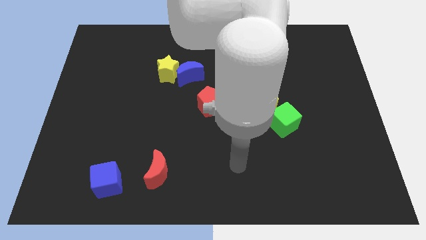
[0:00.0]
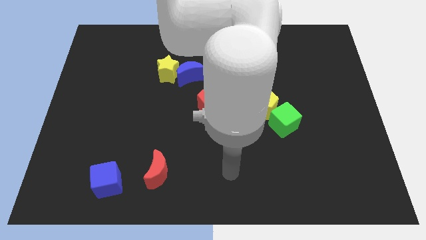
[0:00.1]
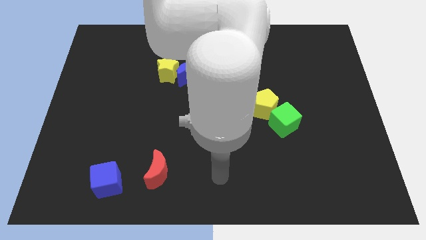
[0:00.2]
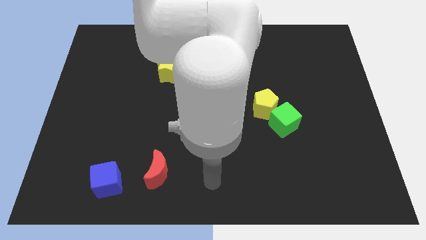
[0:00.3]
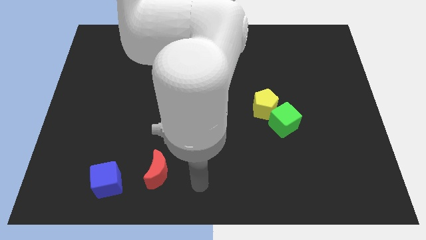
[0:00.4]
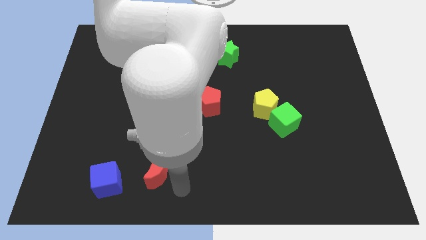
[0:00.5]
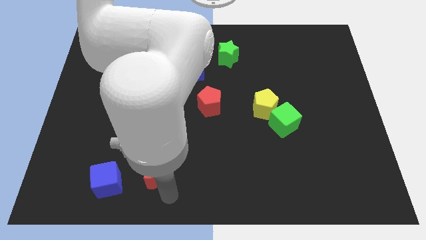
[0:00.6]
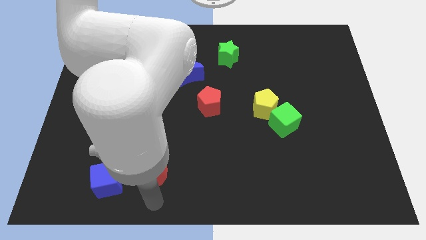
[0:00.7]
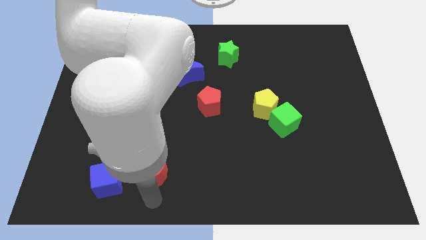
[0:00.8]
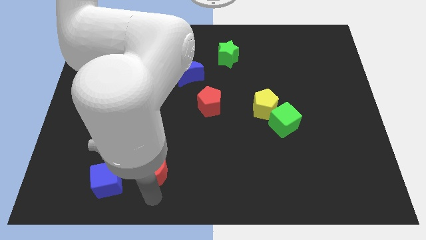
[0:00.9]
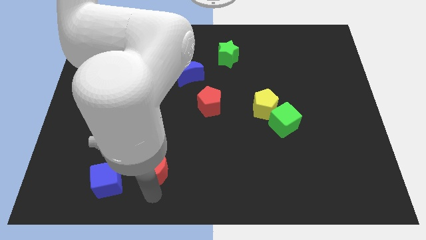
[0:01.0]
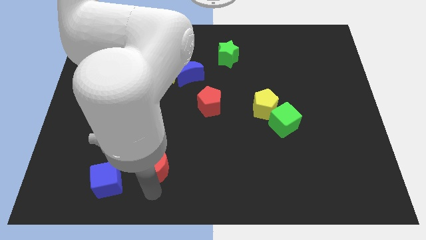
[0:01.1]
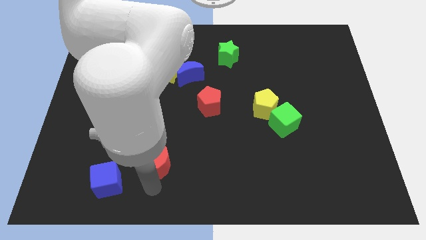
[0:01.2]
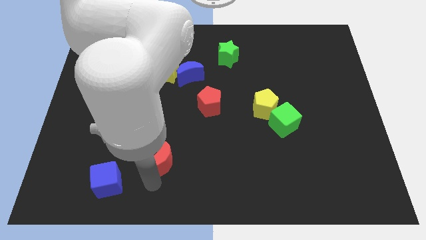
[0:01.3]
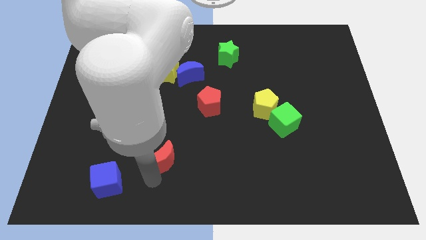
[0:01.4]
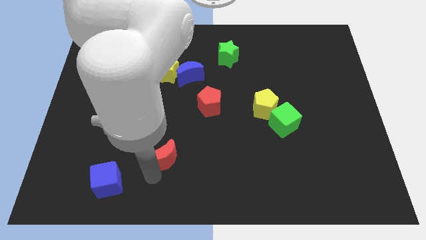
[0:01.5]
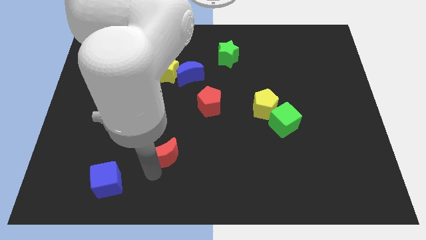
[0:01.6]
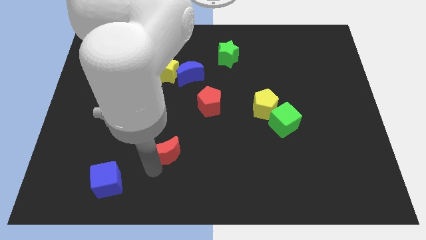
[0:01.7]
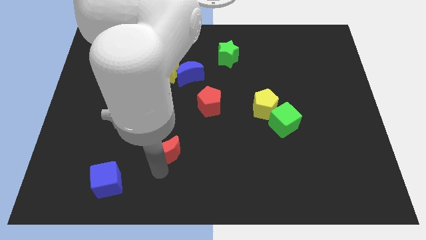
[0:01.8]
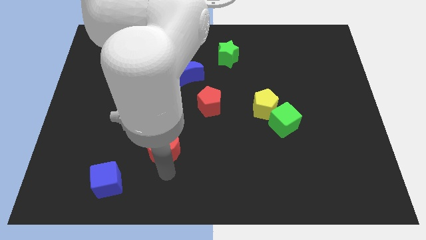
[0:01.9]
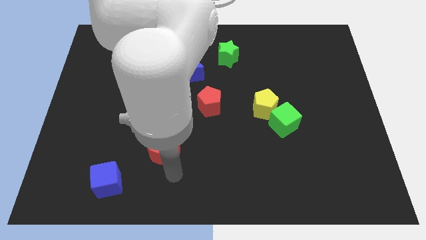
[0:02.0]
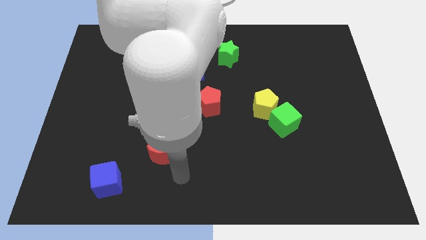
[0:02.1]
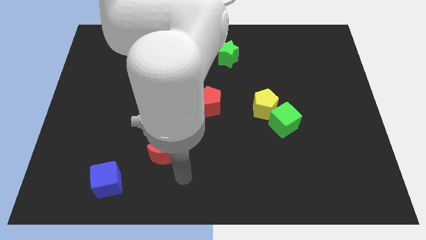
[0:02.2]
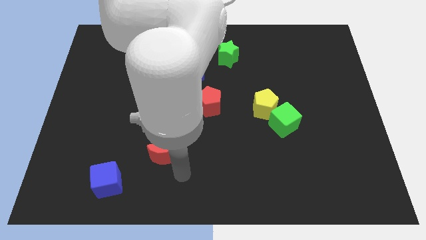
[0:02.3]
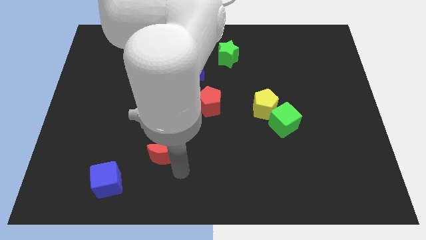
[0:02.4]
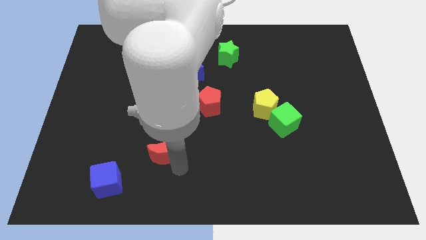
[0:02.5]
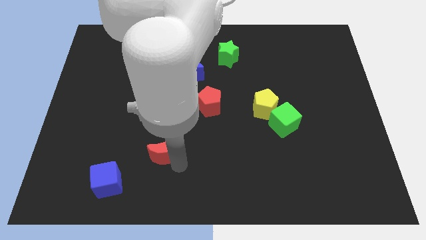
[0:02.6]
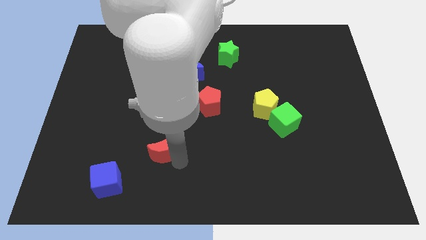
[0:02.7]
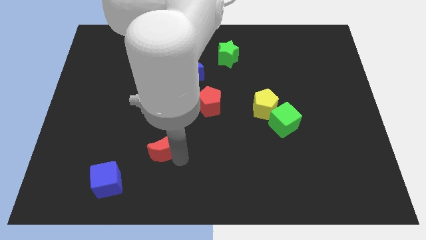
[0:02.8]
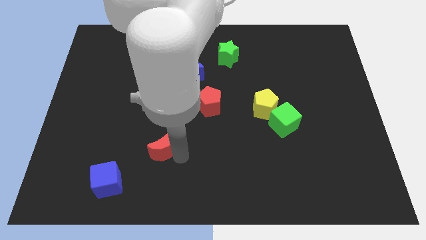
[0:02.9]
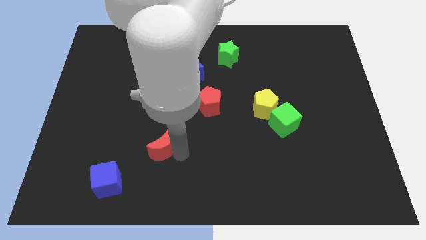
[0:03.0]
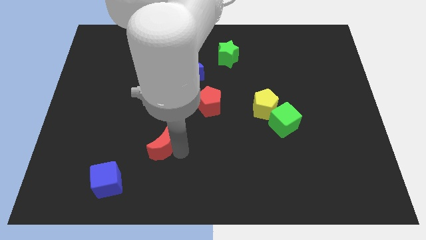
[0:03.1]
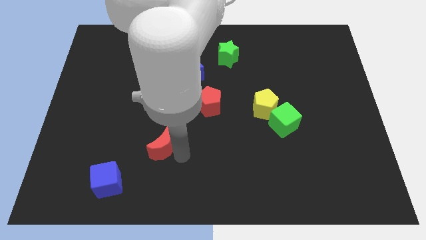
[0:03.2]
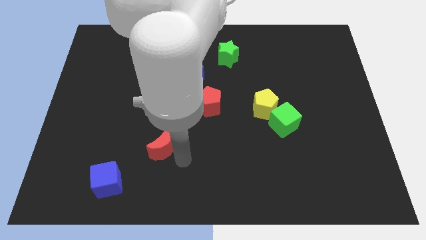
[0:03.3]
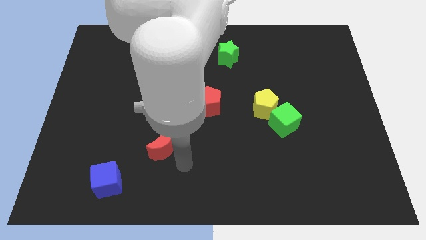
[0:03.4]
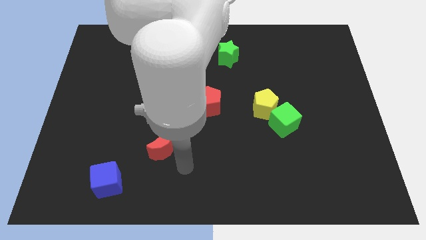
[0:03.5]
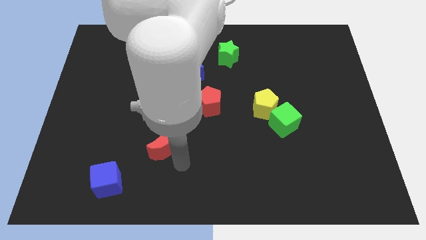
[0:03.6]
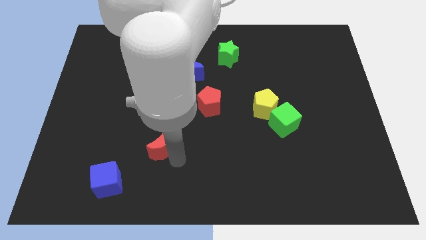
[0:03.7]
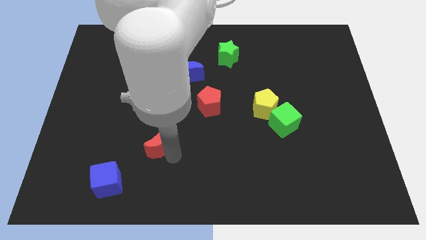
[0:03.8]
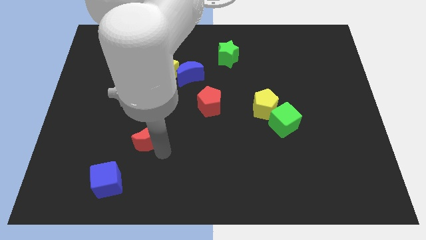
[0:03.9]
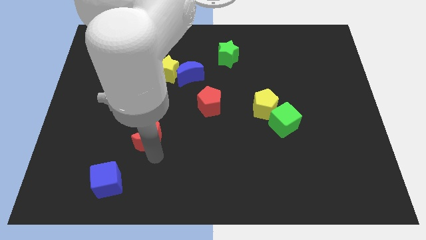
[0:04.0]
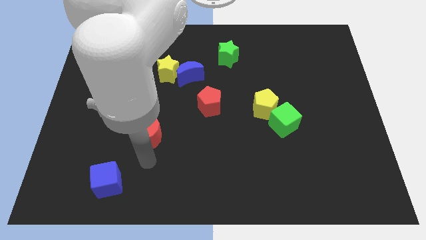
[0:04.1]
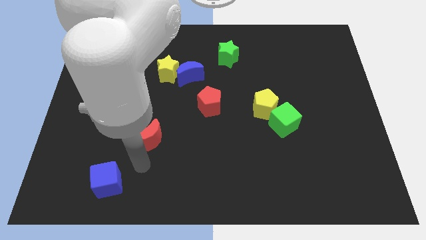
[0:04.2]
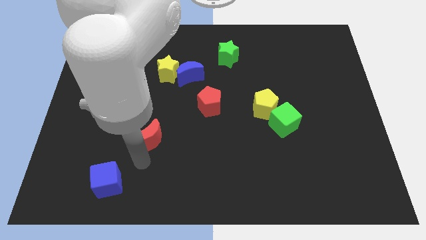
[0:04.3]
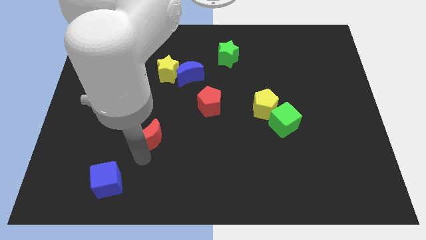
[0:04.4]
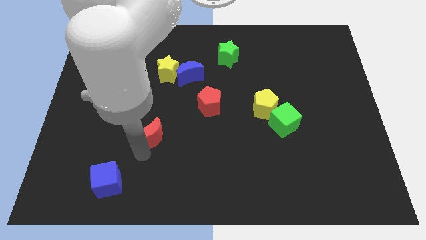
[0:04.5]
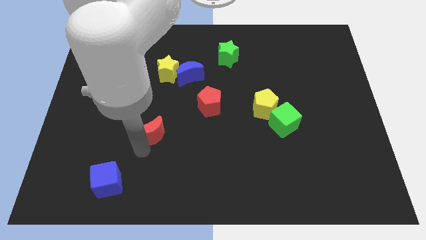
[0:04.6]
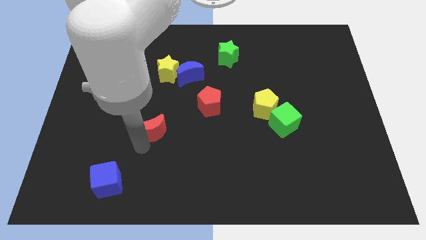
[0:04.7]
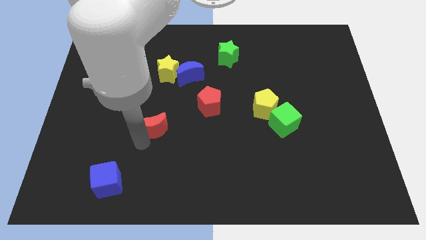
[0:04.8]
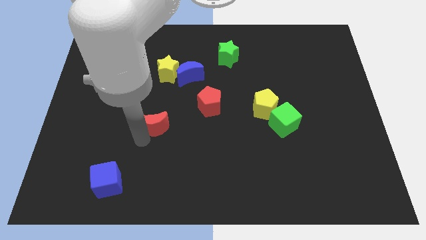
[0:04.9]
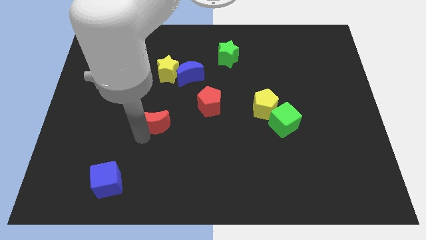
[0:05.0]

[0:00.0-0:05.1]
move the red moon to the bottom of the yellow star

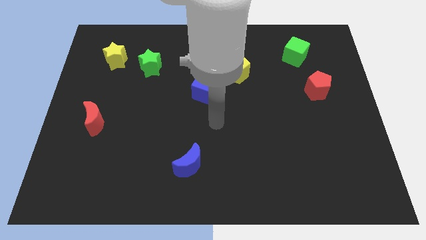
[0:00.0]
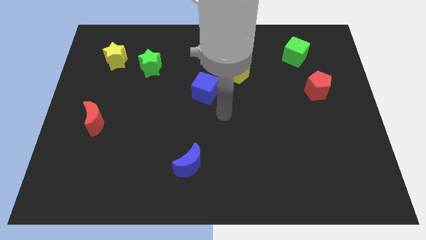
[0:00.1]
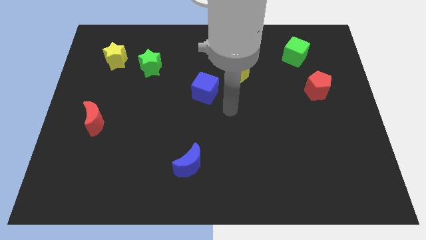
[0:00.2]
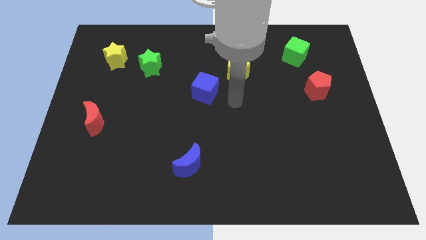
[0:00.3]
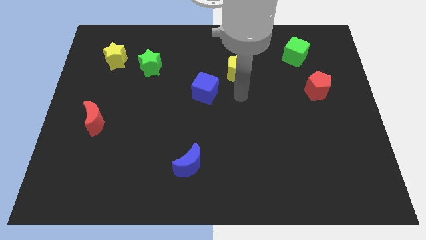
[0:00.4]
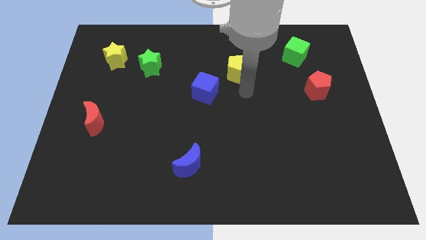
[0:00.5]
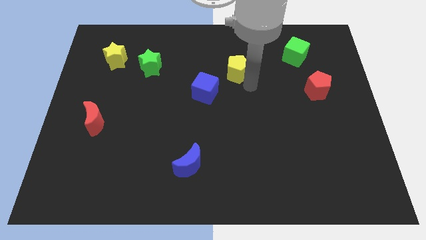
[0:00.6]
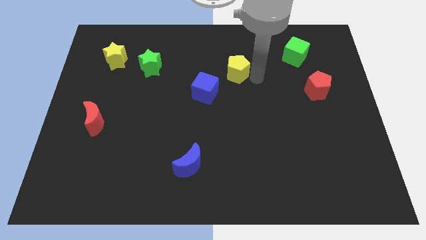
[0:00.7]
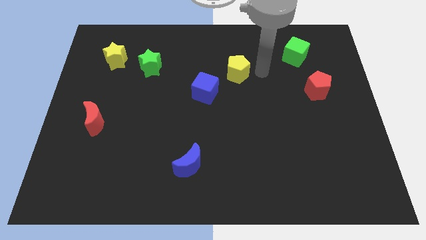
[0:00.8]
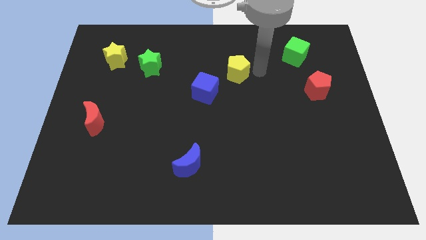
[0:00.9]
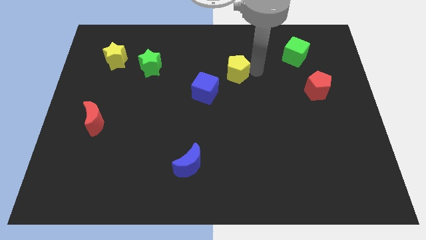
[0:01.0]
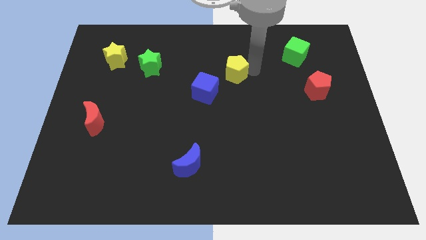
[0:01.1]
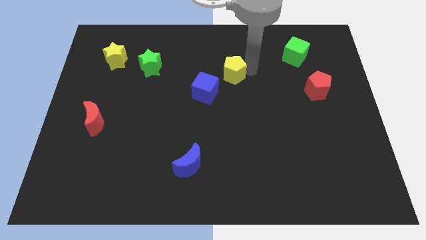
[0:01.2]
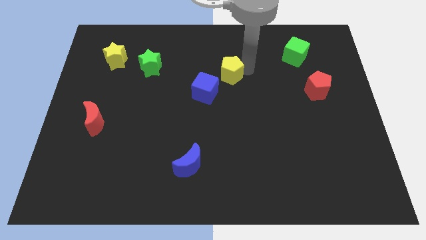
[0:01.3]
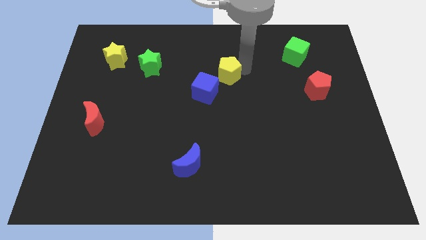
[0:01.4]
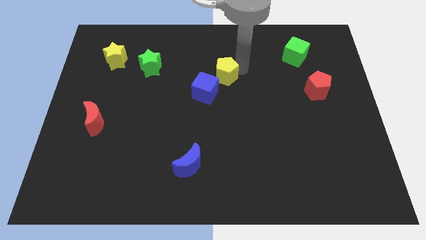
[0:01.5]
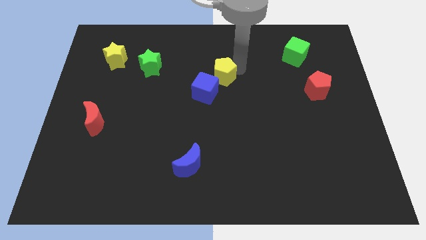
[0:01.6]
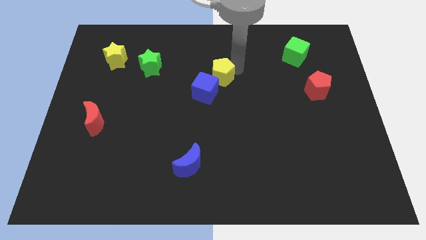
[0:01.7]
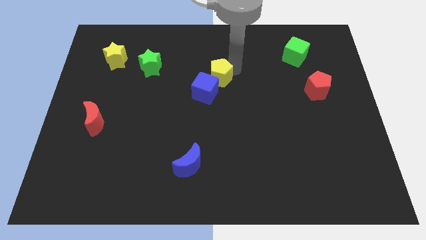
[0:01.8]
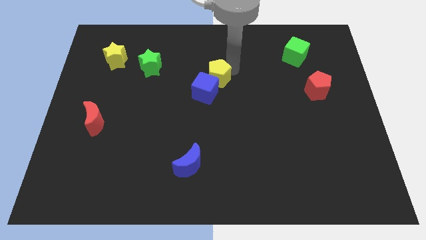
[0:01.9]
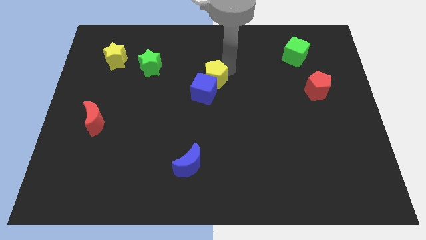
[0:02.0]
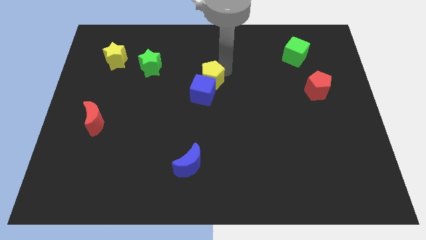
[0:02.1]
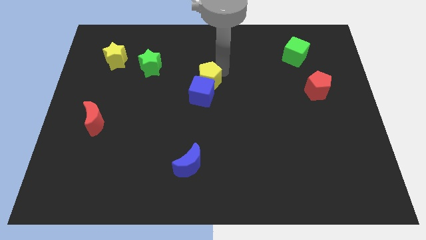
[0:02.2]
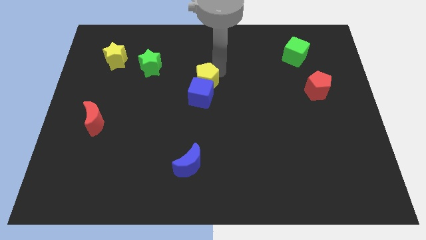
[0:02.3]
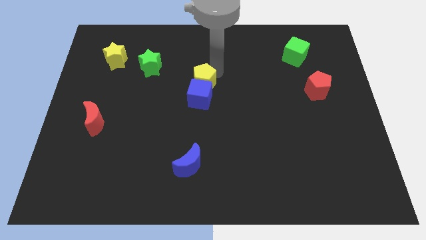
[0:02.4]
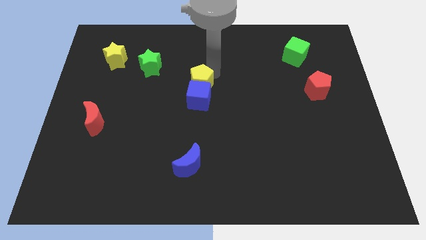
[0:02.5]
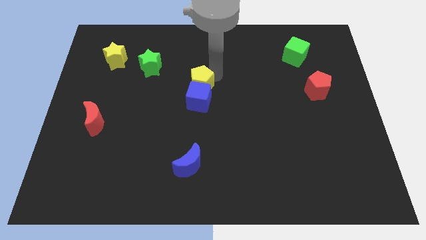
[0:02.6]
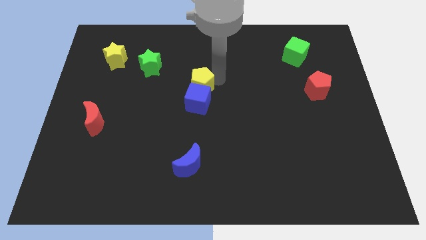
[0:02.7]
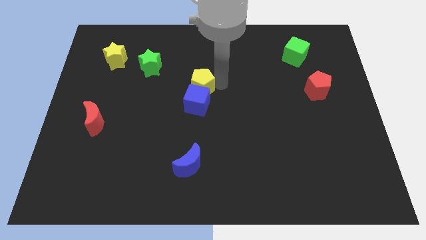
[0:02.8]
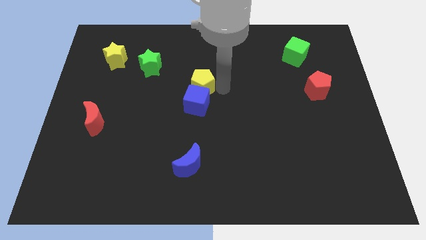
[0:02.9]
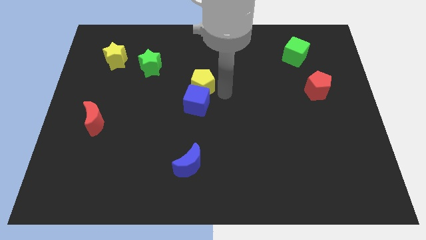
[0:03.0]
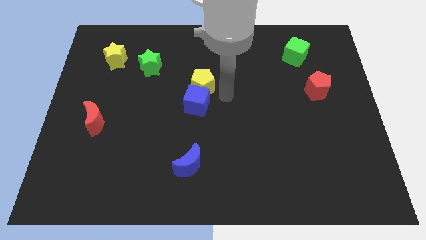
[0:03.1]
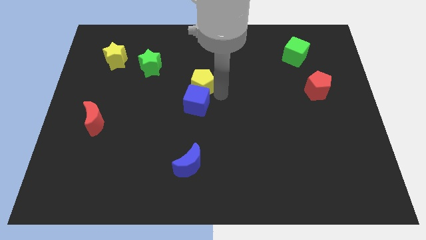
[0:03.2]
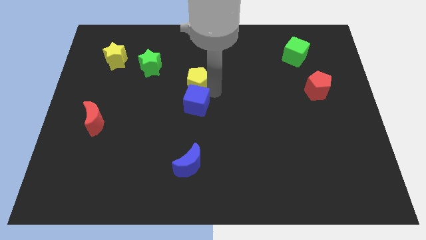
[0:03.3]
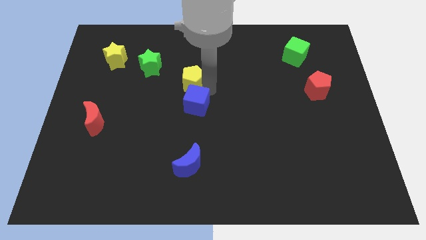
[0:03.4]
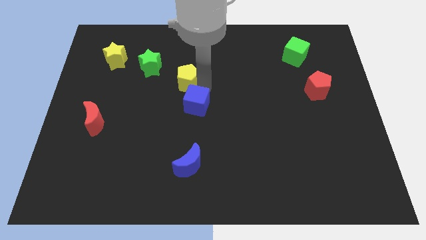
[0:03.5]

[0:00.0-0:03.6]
push the yellow pentagon diagonally down and to the right of the green star
